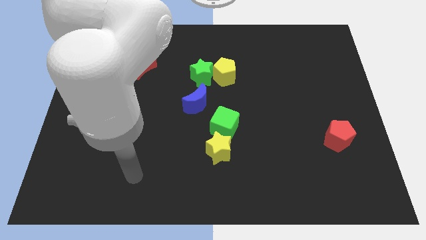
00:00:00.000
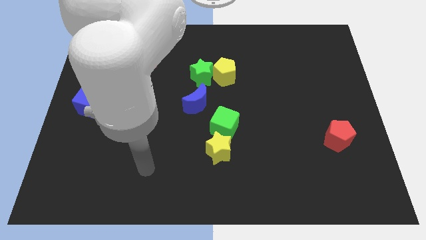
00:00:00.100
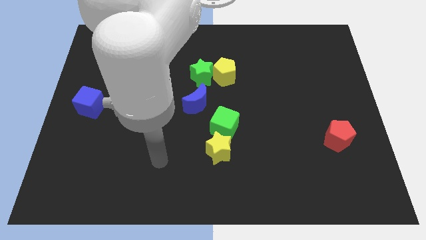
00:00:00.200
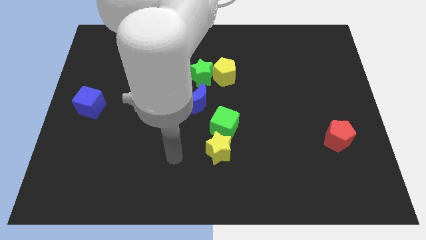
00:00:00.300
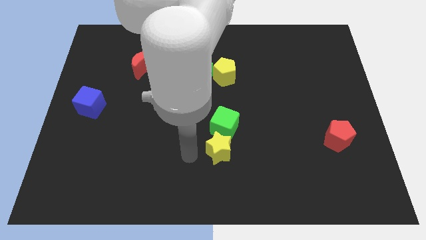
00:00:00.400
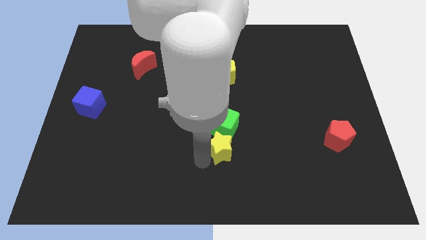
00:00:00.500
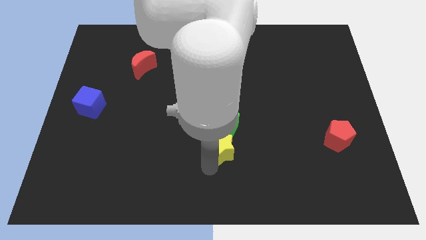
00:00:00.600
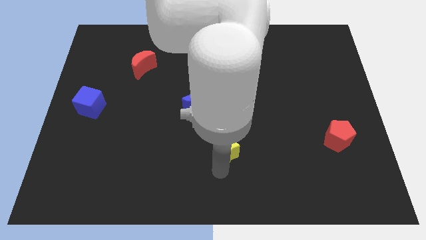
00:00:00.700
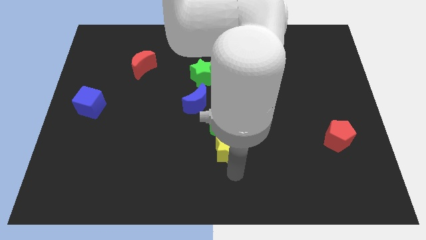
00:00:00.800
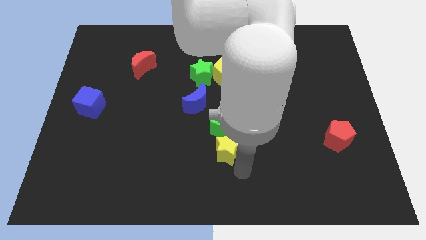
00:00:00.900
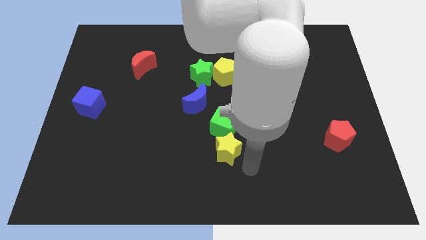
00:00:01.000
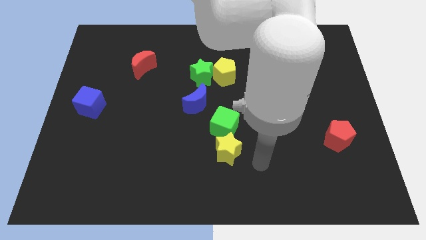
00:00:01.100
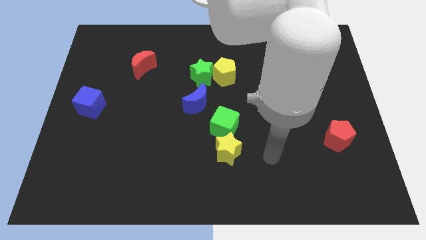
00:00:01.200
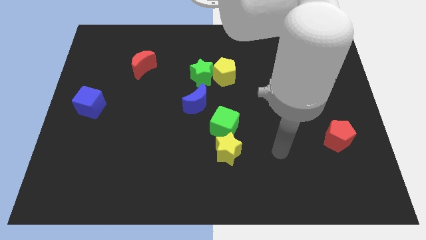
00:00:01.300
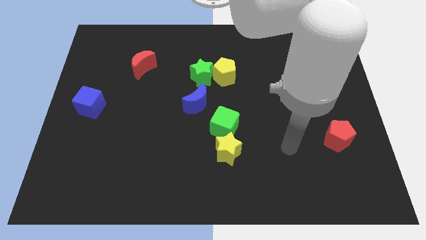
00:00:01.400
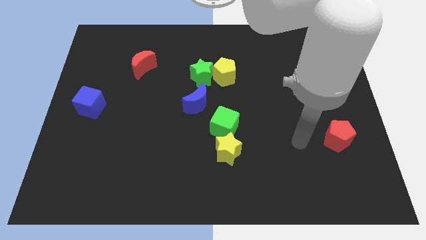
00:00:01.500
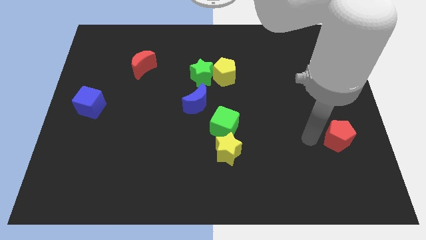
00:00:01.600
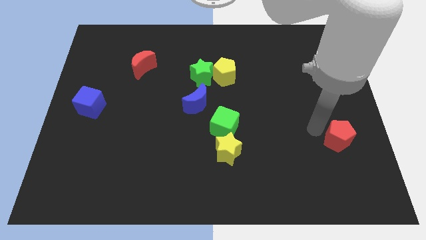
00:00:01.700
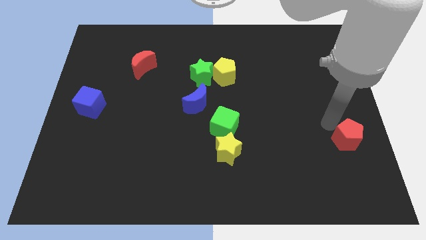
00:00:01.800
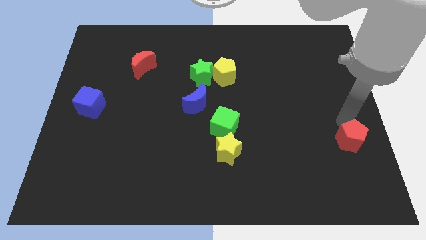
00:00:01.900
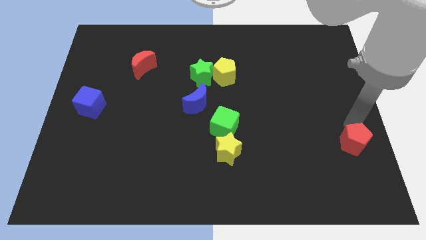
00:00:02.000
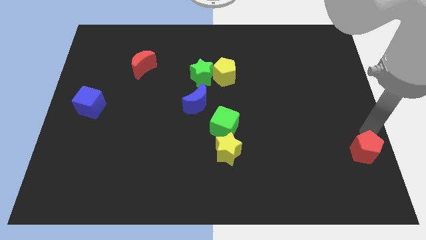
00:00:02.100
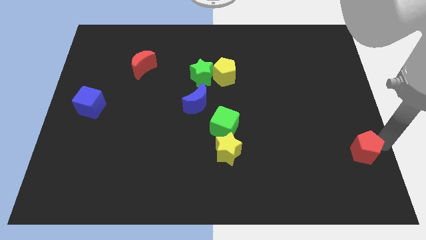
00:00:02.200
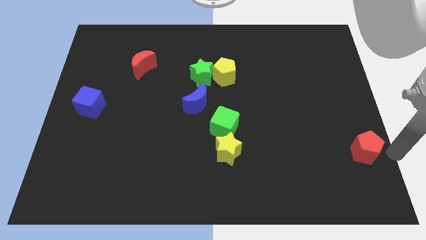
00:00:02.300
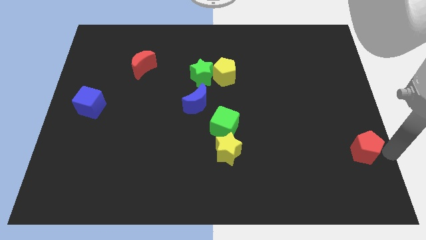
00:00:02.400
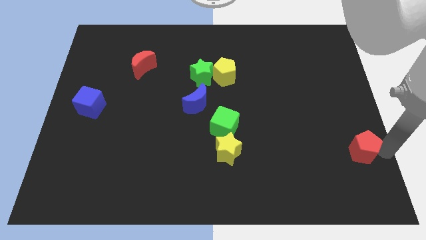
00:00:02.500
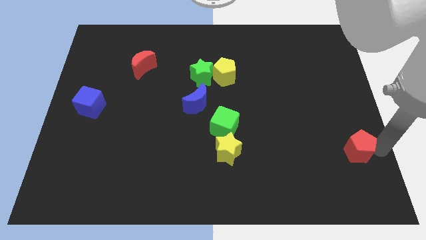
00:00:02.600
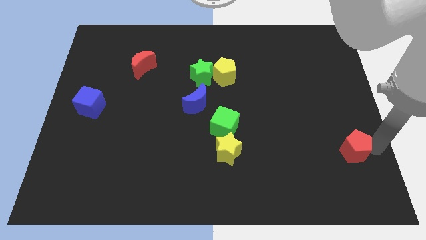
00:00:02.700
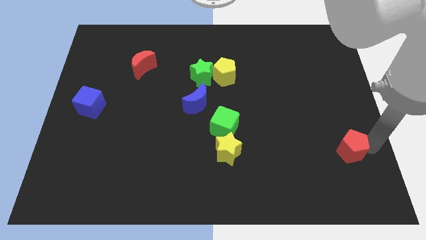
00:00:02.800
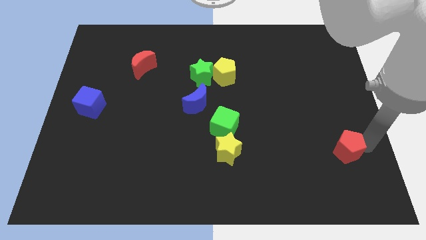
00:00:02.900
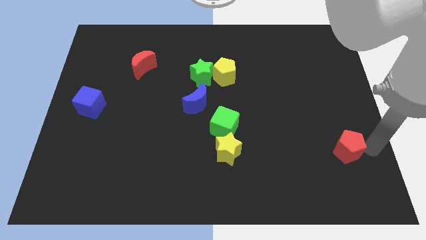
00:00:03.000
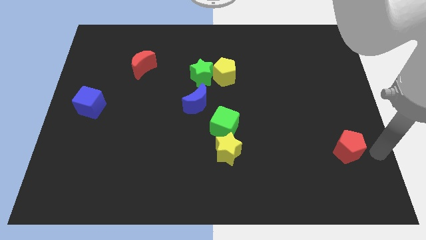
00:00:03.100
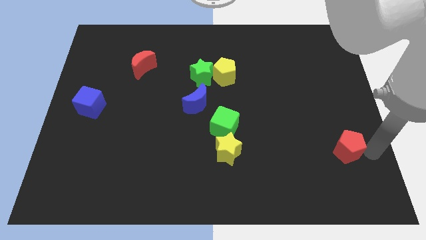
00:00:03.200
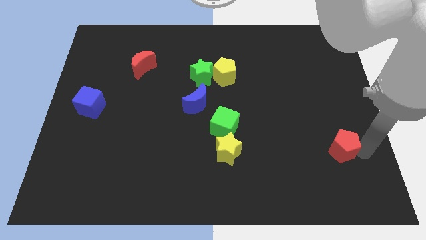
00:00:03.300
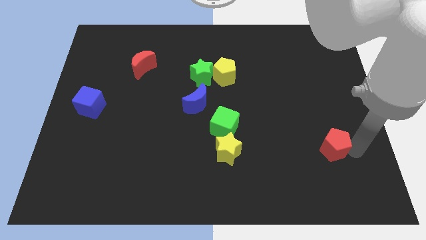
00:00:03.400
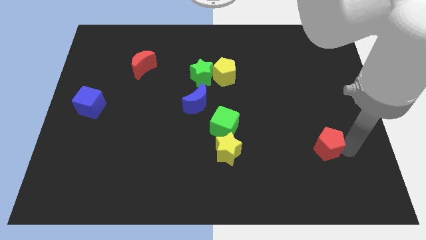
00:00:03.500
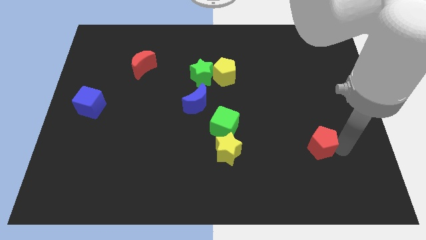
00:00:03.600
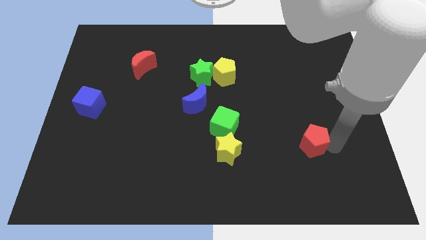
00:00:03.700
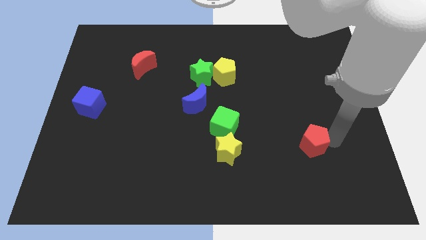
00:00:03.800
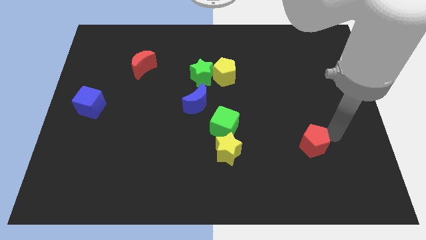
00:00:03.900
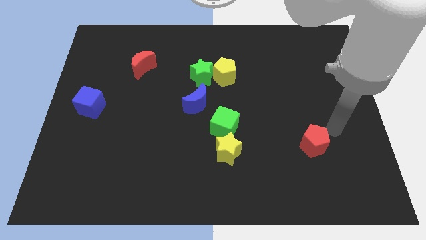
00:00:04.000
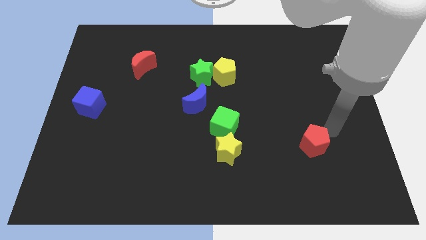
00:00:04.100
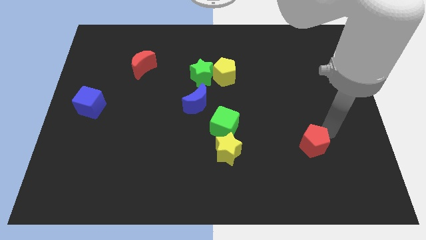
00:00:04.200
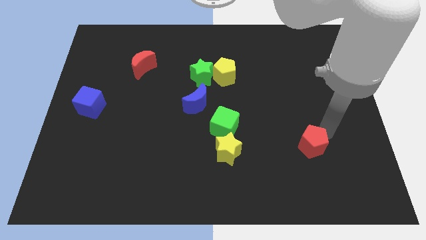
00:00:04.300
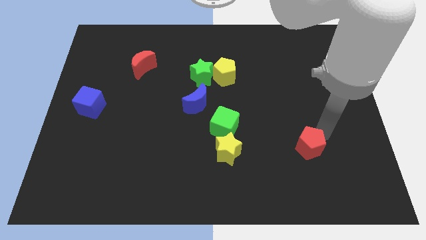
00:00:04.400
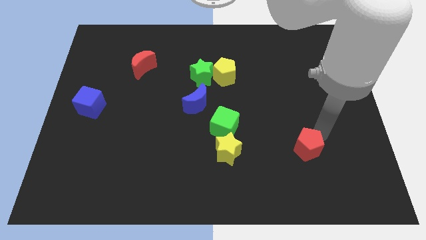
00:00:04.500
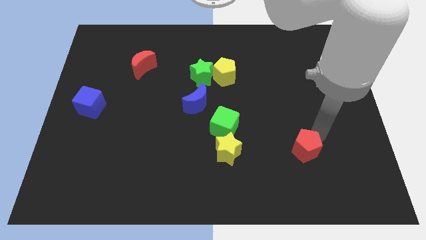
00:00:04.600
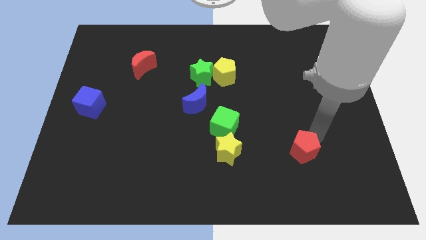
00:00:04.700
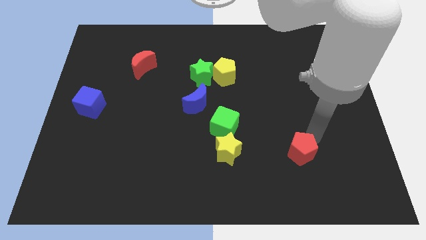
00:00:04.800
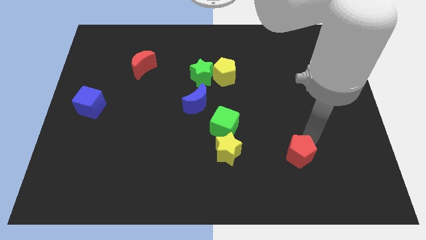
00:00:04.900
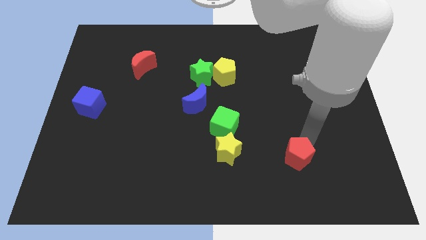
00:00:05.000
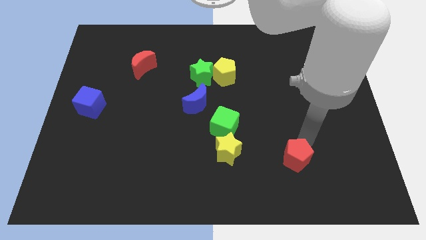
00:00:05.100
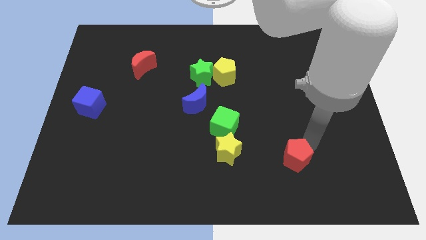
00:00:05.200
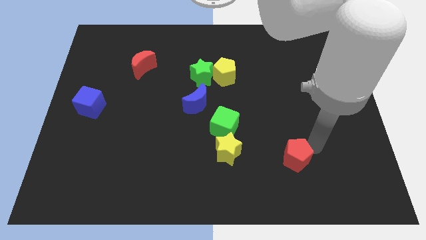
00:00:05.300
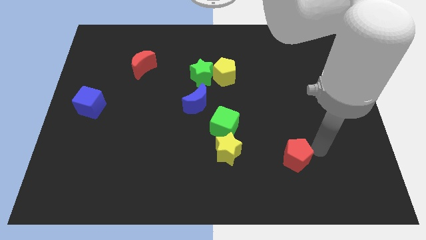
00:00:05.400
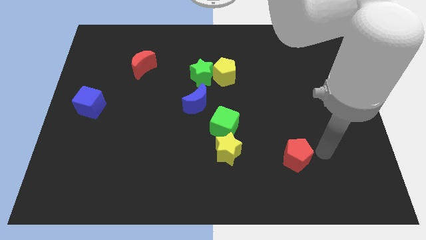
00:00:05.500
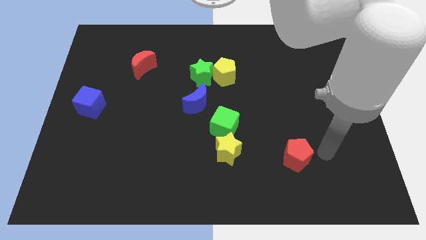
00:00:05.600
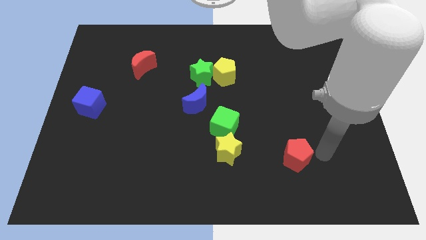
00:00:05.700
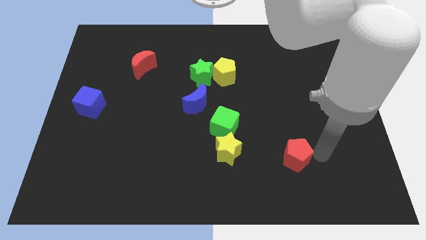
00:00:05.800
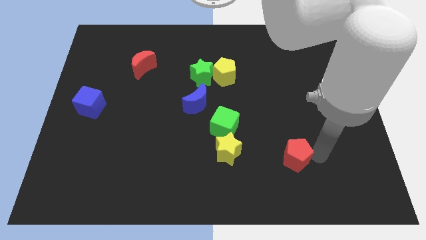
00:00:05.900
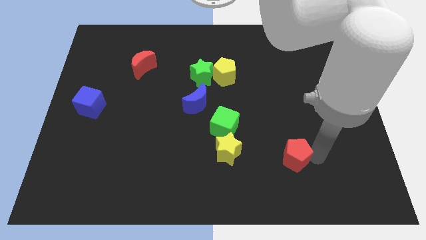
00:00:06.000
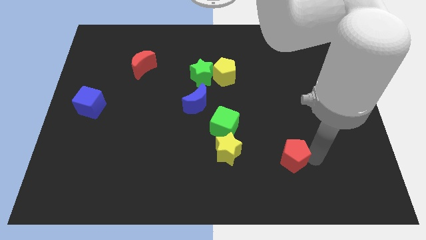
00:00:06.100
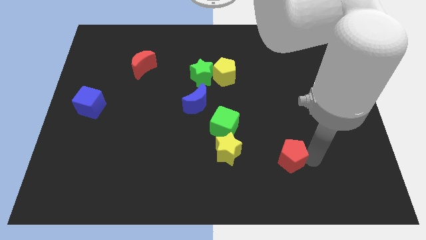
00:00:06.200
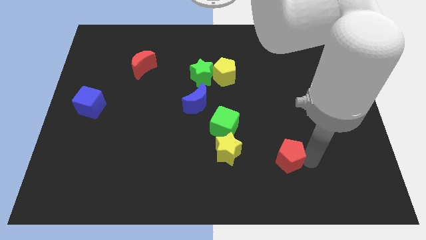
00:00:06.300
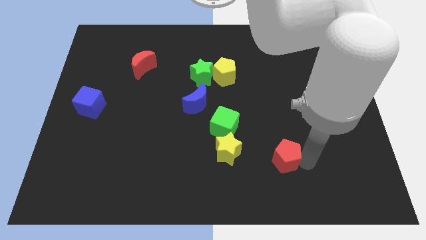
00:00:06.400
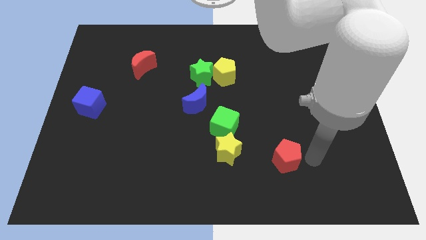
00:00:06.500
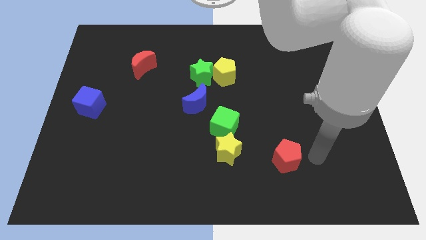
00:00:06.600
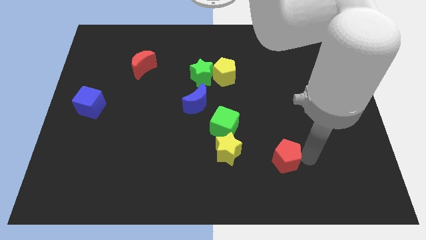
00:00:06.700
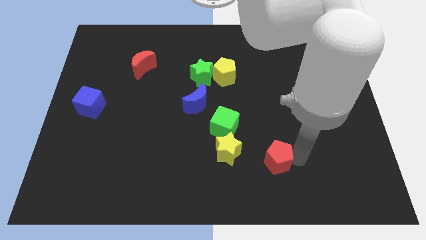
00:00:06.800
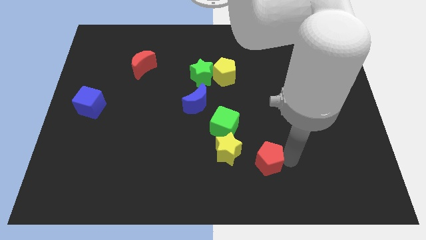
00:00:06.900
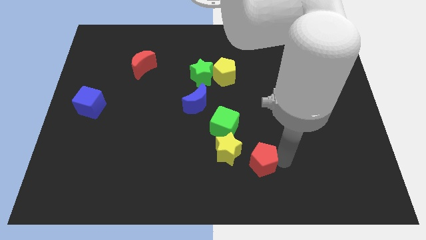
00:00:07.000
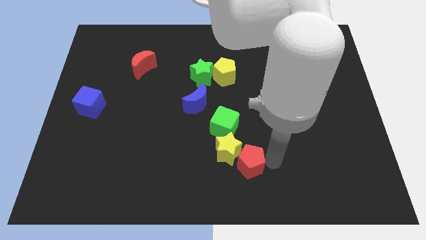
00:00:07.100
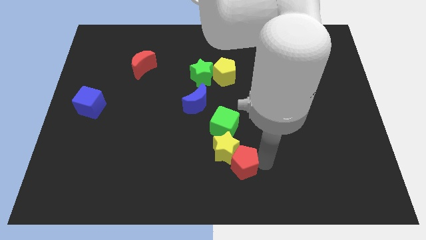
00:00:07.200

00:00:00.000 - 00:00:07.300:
put the red pentagon below the green cube
